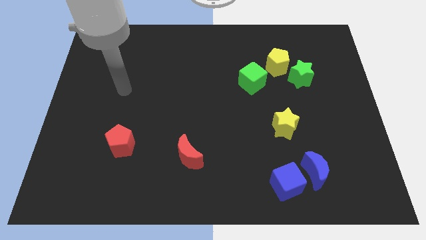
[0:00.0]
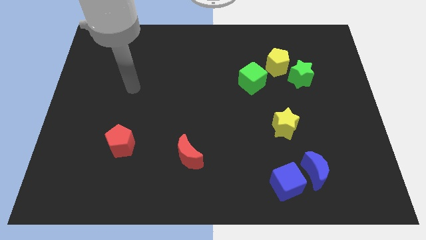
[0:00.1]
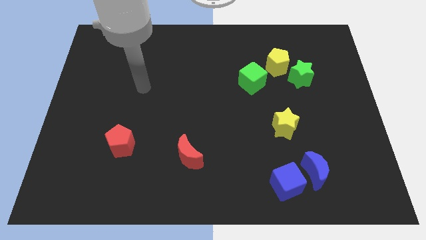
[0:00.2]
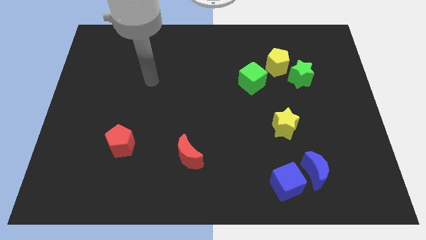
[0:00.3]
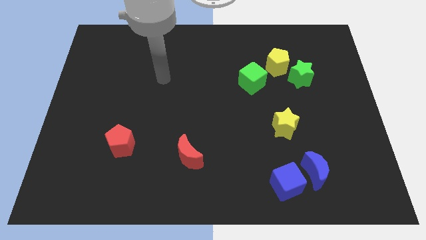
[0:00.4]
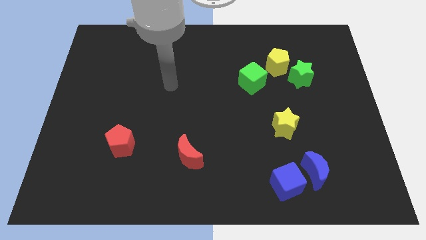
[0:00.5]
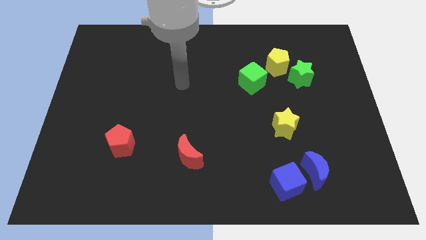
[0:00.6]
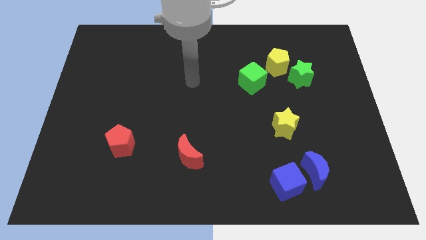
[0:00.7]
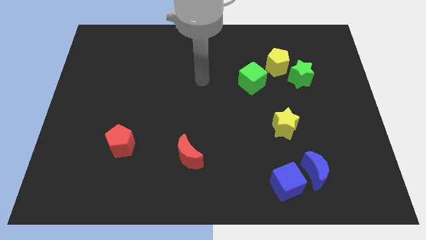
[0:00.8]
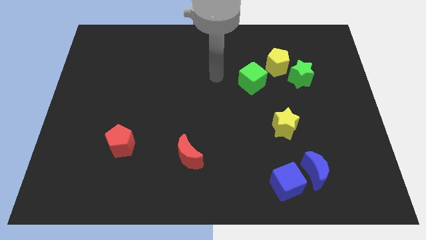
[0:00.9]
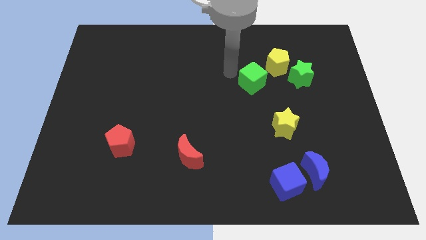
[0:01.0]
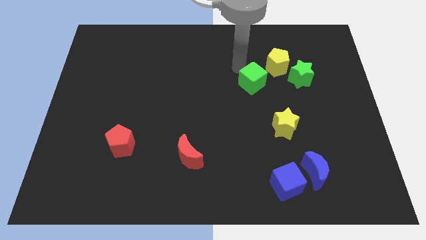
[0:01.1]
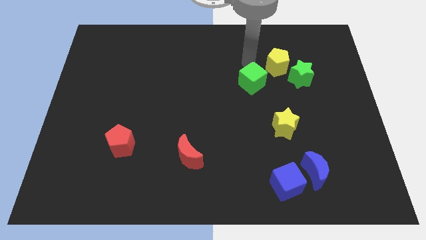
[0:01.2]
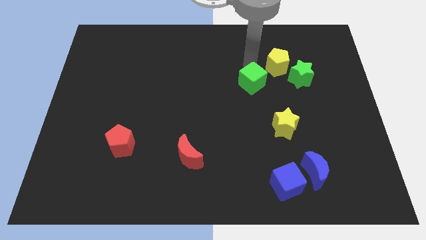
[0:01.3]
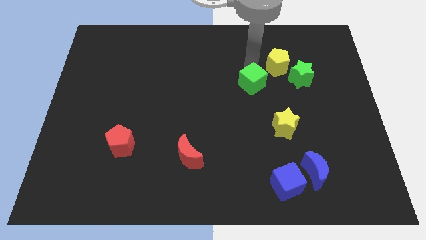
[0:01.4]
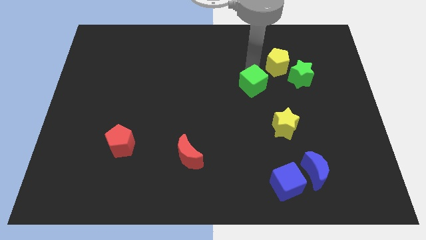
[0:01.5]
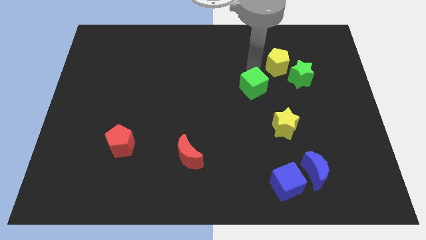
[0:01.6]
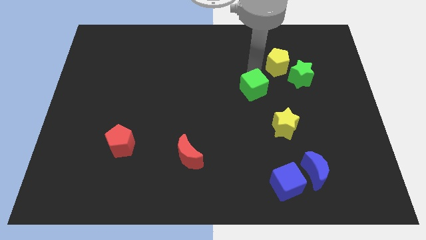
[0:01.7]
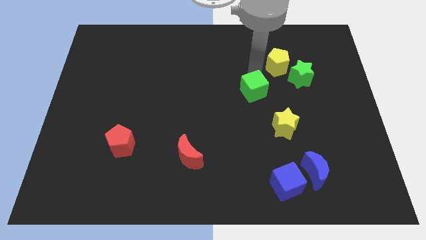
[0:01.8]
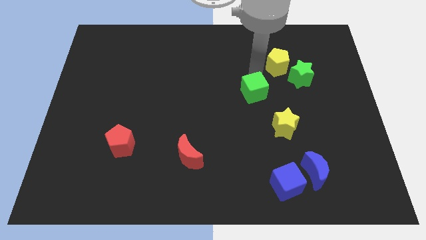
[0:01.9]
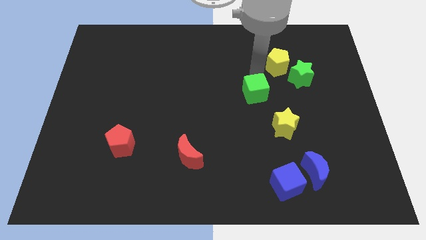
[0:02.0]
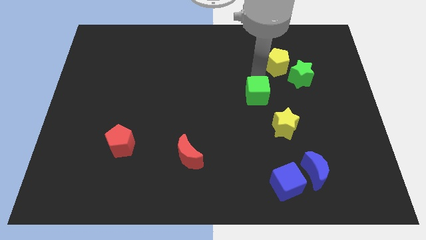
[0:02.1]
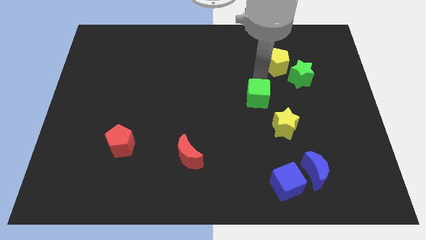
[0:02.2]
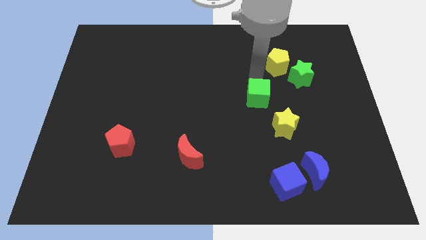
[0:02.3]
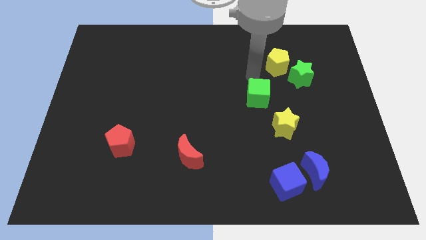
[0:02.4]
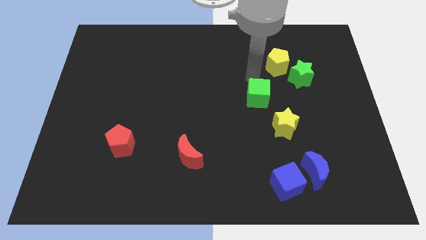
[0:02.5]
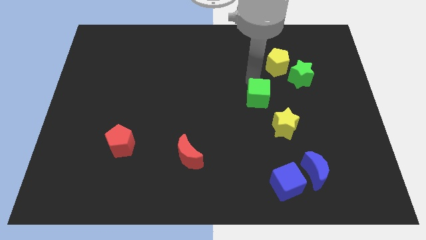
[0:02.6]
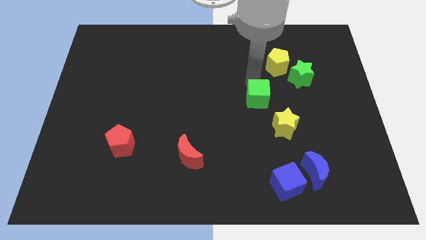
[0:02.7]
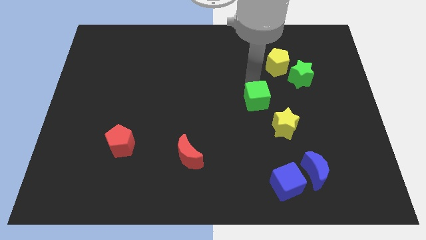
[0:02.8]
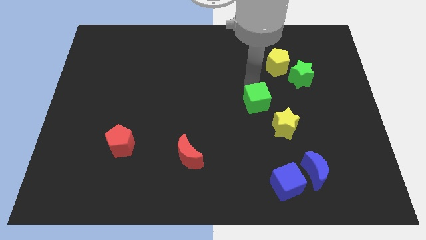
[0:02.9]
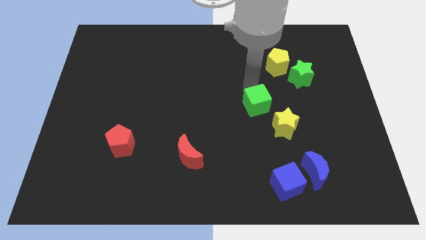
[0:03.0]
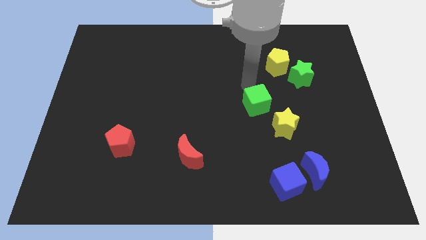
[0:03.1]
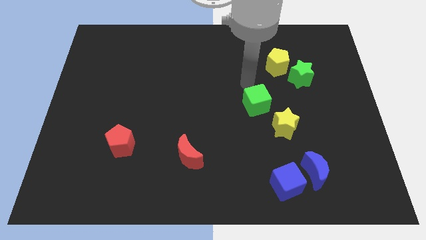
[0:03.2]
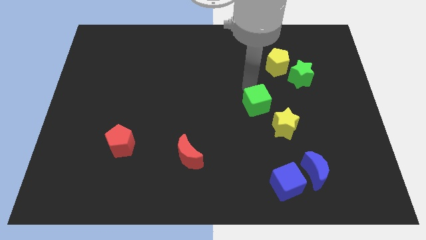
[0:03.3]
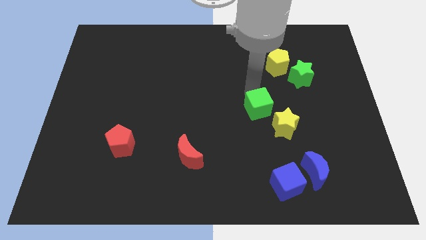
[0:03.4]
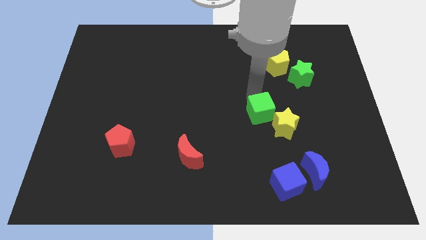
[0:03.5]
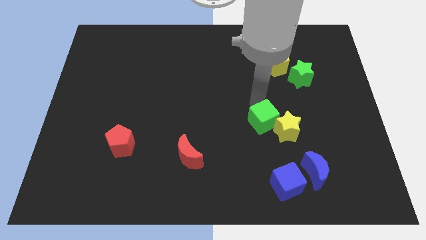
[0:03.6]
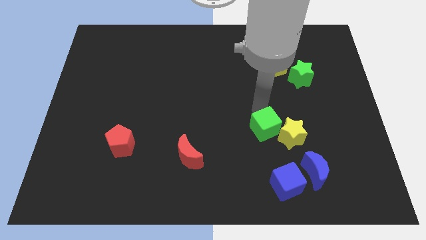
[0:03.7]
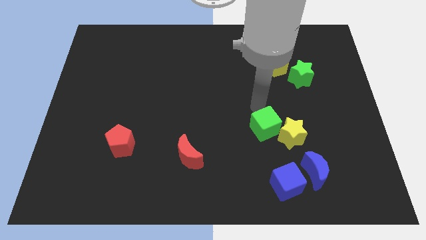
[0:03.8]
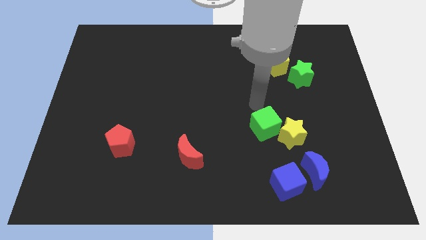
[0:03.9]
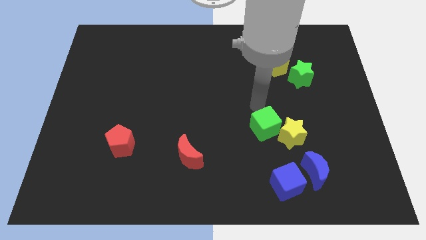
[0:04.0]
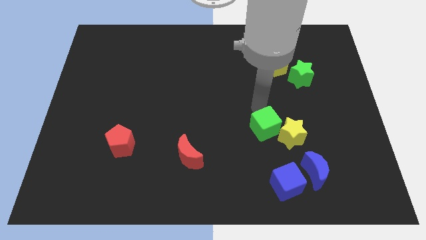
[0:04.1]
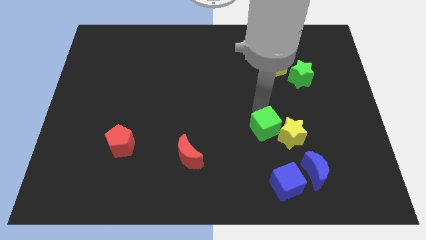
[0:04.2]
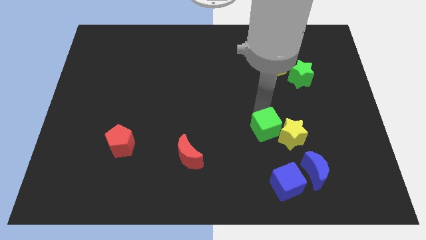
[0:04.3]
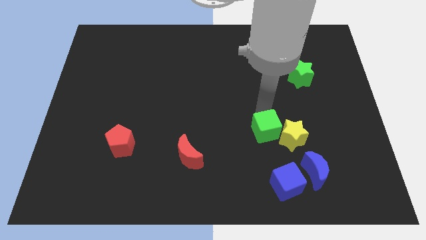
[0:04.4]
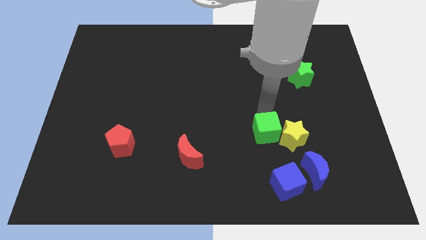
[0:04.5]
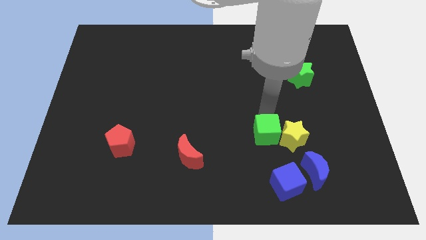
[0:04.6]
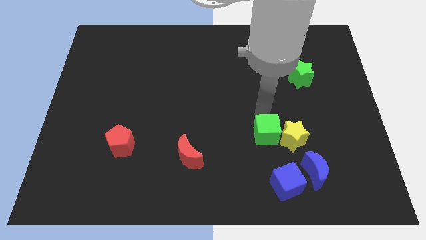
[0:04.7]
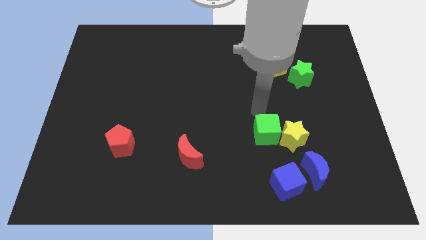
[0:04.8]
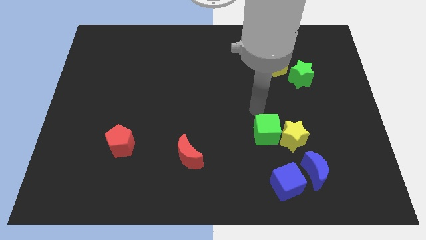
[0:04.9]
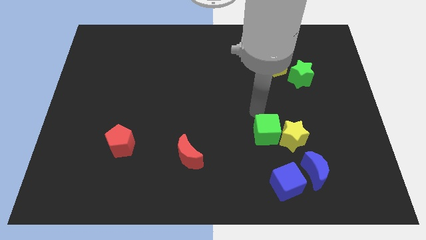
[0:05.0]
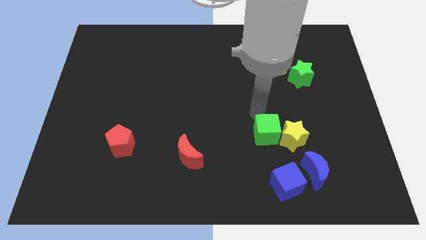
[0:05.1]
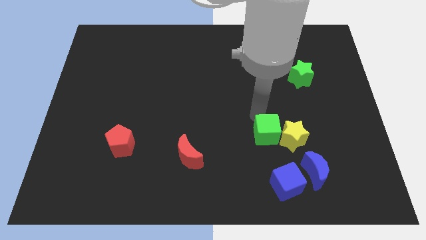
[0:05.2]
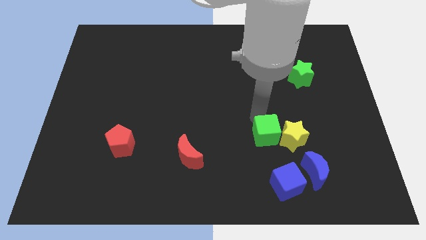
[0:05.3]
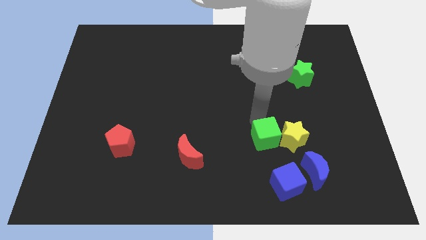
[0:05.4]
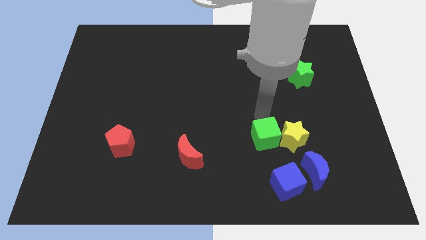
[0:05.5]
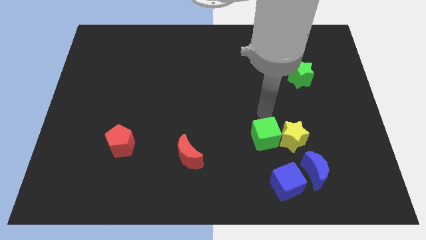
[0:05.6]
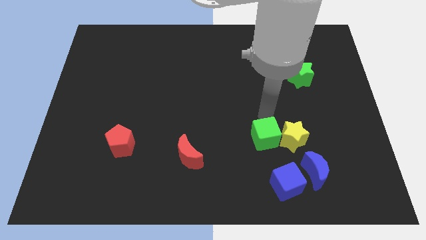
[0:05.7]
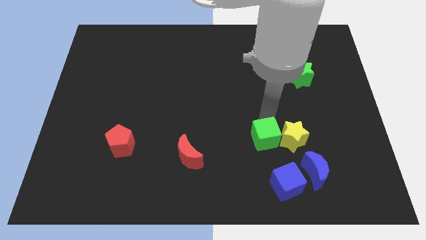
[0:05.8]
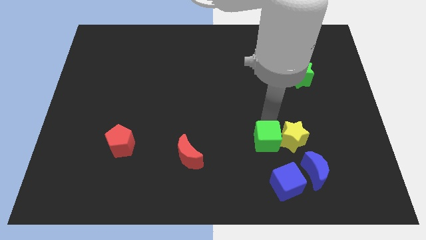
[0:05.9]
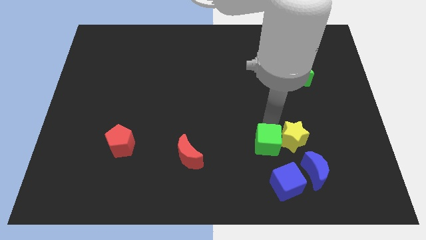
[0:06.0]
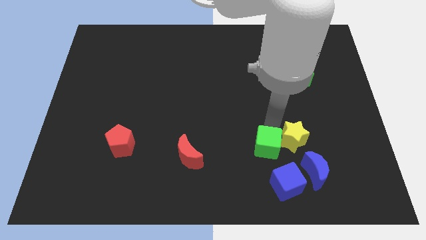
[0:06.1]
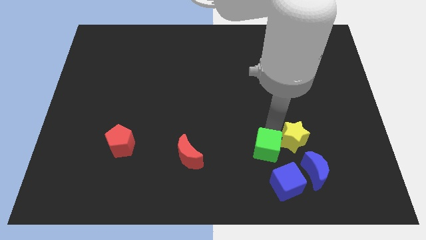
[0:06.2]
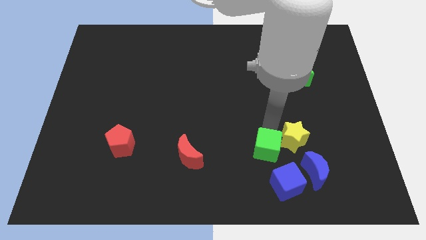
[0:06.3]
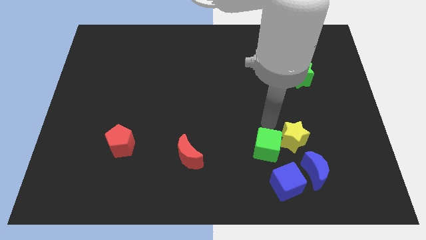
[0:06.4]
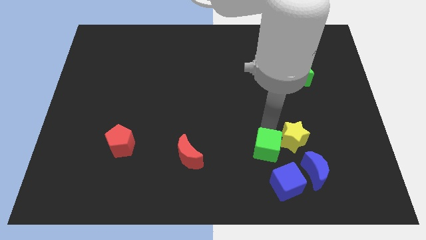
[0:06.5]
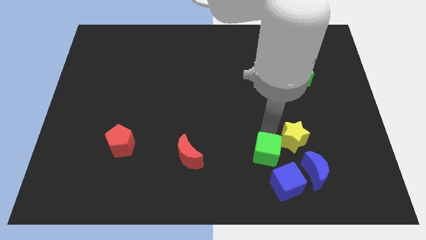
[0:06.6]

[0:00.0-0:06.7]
push the green cube left of the blue moon
